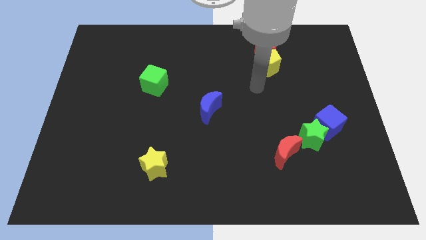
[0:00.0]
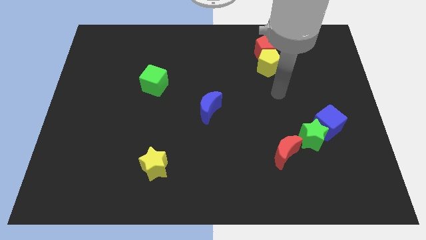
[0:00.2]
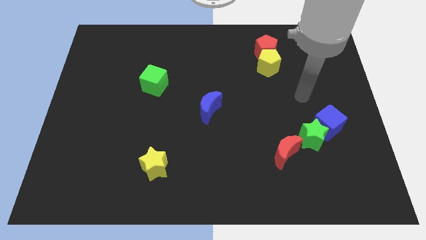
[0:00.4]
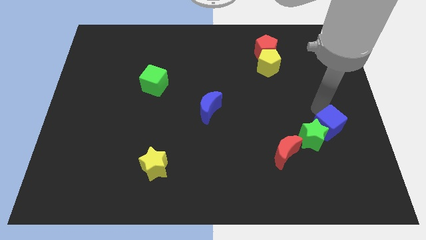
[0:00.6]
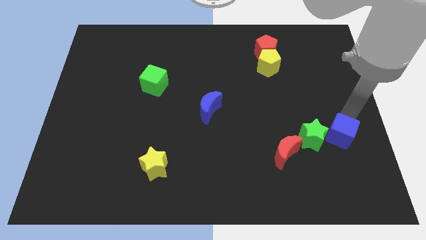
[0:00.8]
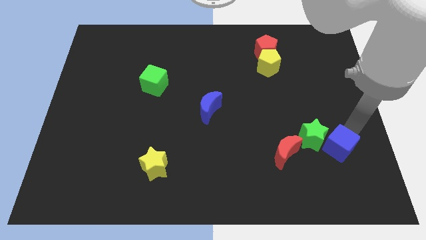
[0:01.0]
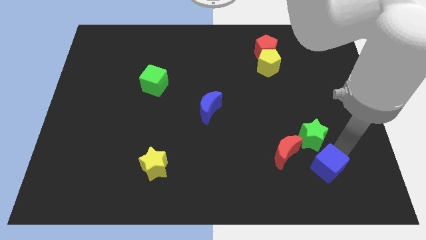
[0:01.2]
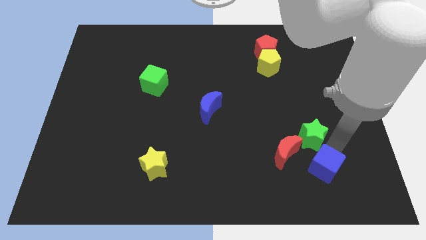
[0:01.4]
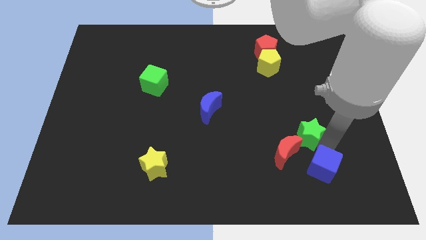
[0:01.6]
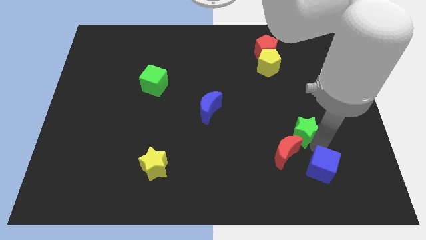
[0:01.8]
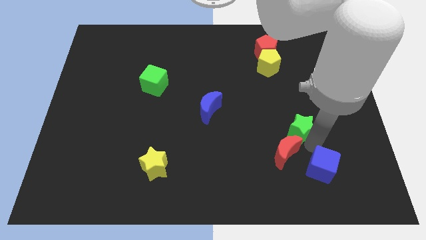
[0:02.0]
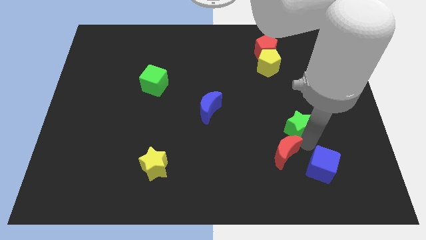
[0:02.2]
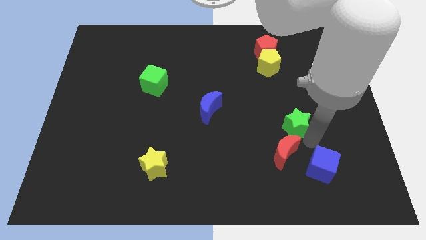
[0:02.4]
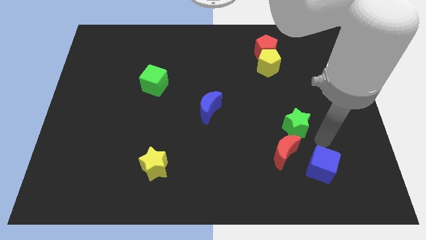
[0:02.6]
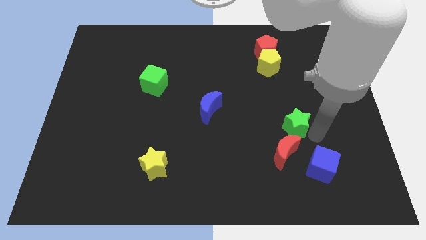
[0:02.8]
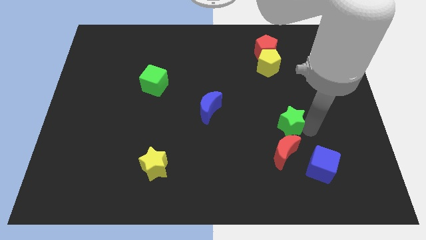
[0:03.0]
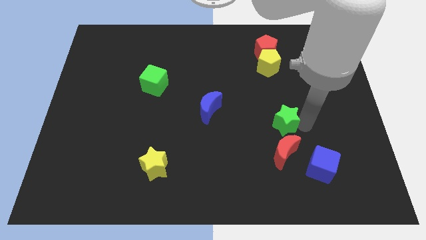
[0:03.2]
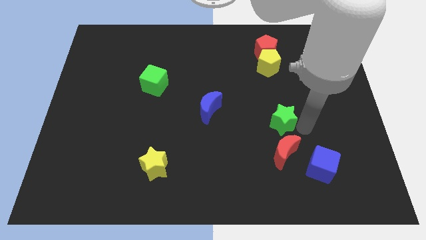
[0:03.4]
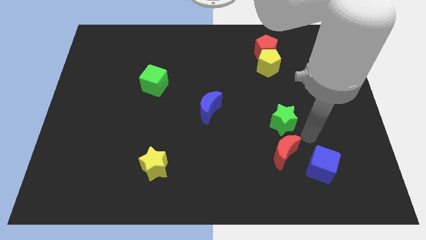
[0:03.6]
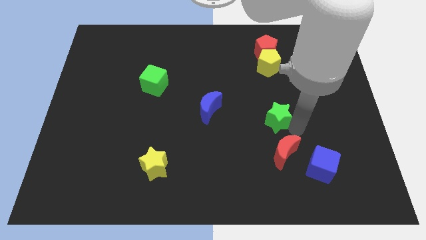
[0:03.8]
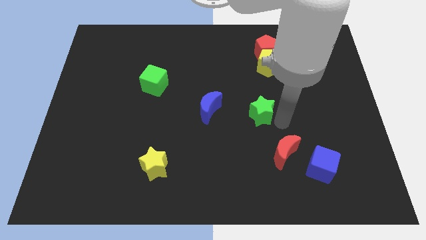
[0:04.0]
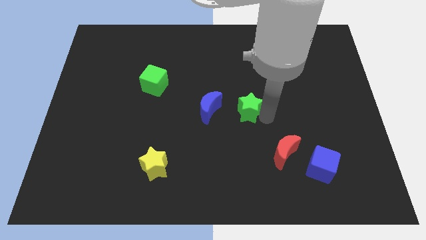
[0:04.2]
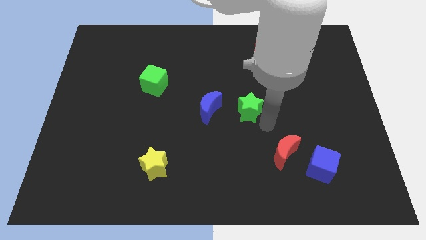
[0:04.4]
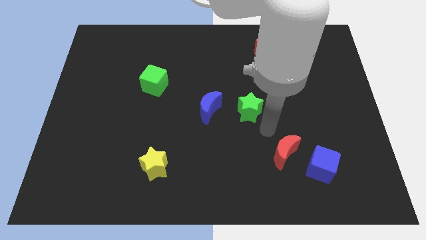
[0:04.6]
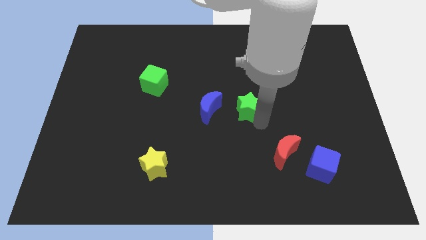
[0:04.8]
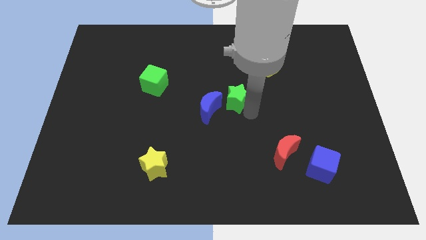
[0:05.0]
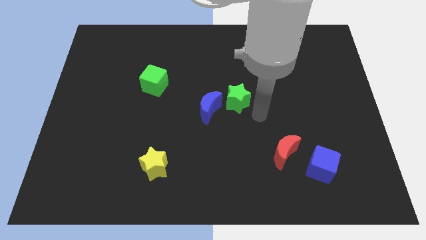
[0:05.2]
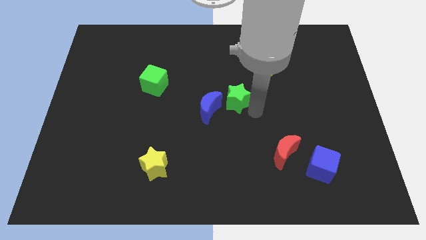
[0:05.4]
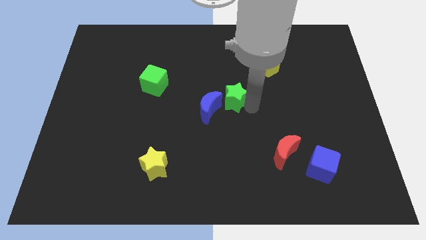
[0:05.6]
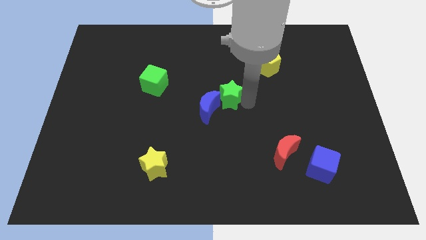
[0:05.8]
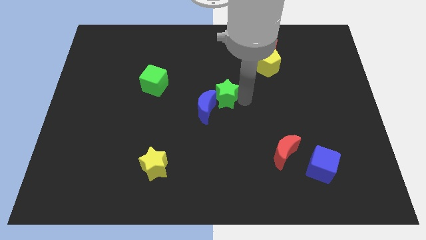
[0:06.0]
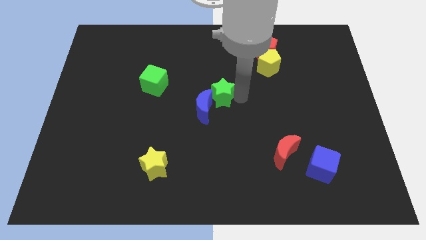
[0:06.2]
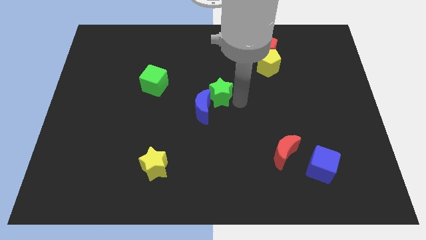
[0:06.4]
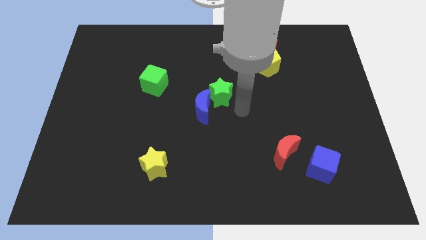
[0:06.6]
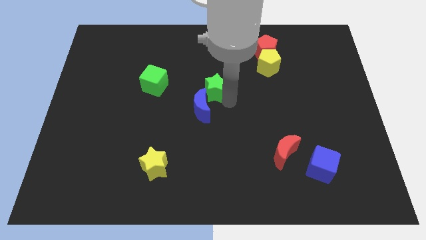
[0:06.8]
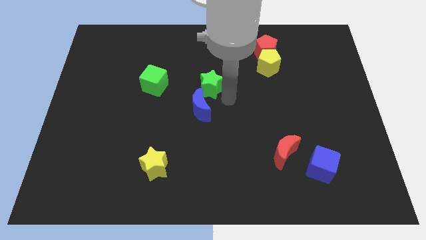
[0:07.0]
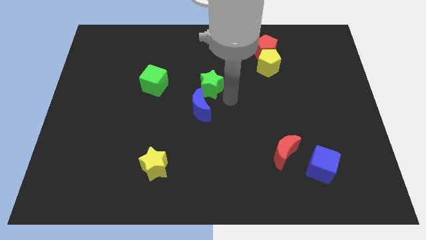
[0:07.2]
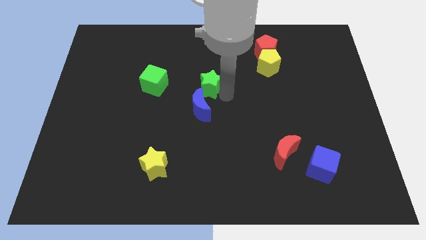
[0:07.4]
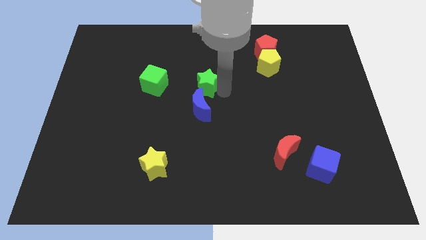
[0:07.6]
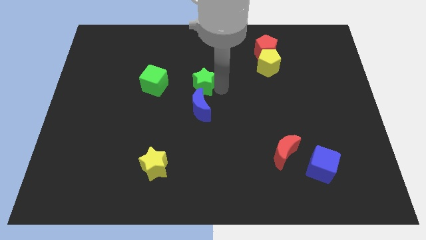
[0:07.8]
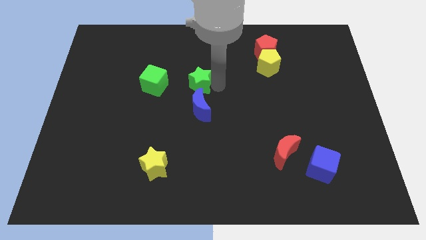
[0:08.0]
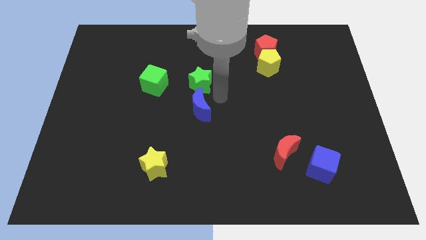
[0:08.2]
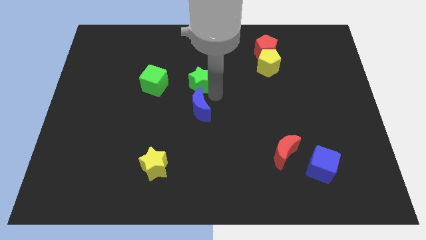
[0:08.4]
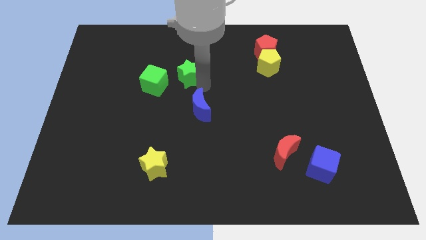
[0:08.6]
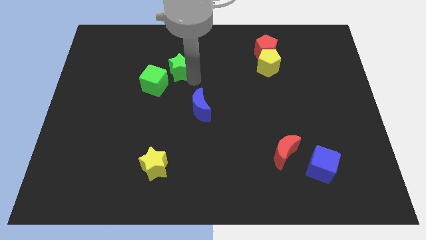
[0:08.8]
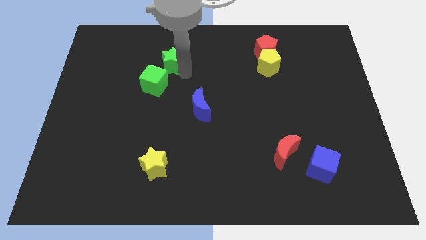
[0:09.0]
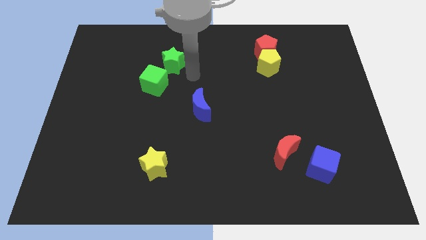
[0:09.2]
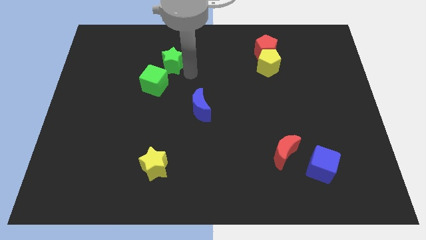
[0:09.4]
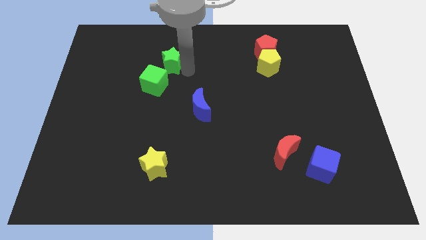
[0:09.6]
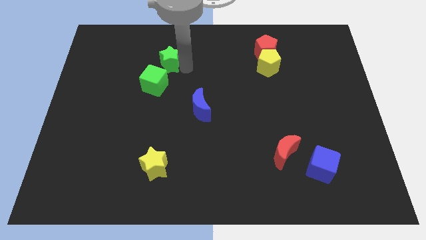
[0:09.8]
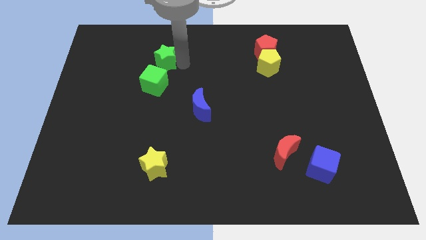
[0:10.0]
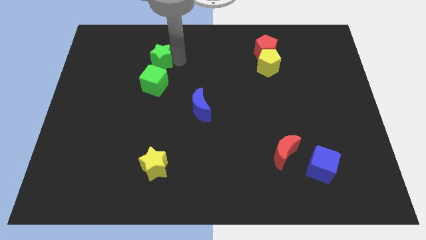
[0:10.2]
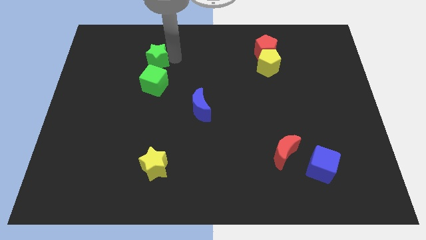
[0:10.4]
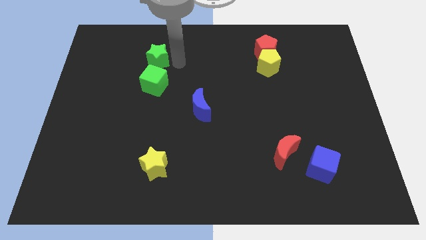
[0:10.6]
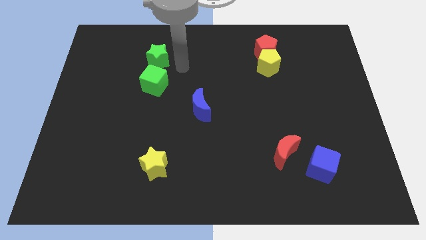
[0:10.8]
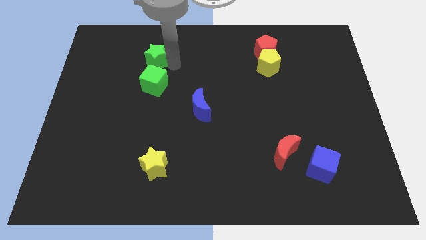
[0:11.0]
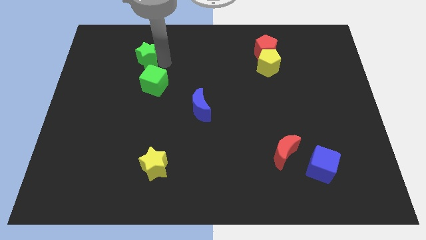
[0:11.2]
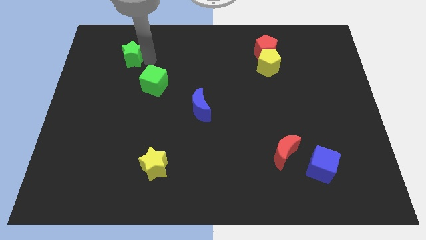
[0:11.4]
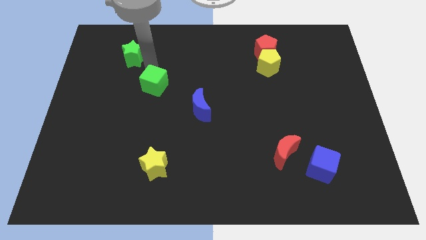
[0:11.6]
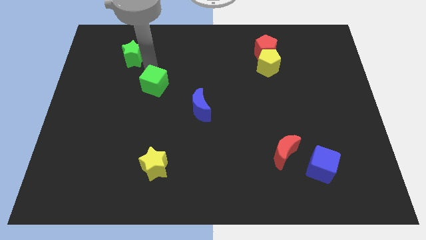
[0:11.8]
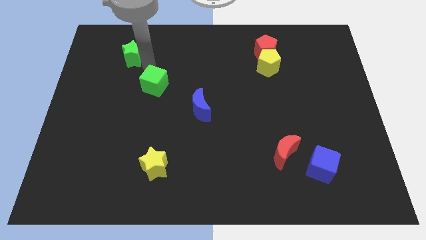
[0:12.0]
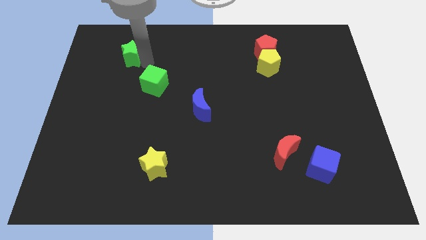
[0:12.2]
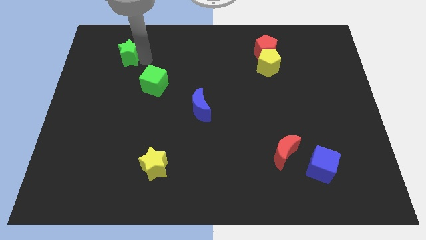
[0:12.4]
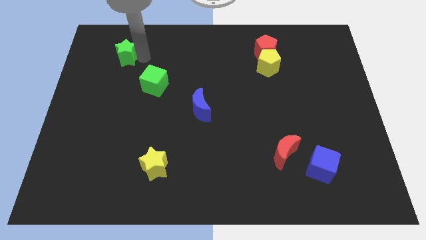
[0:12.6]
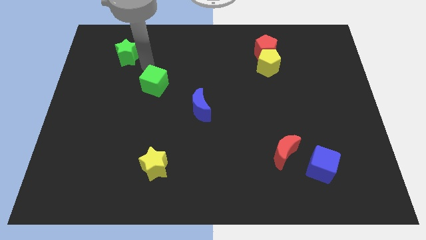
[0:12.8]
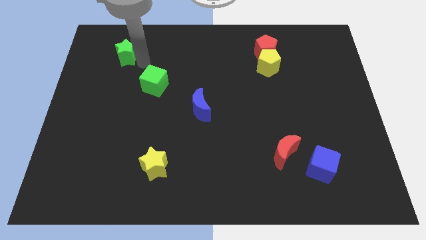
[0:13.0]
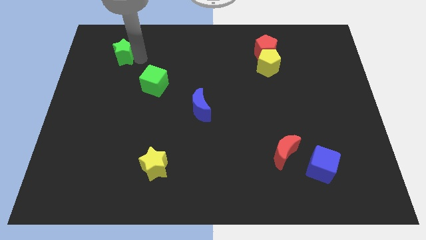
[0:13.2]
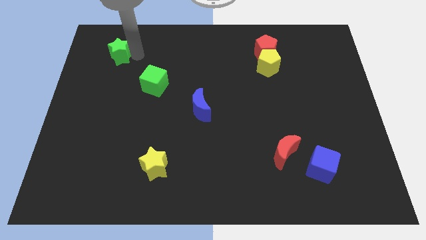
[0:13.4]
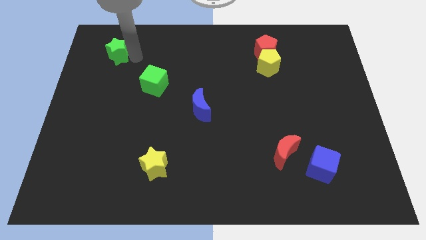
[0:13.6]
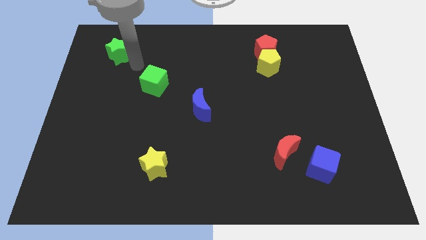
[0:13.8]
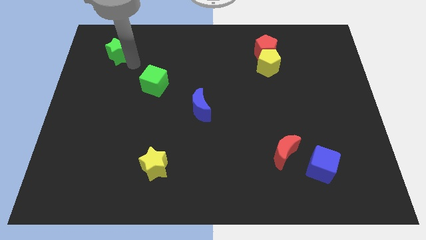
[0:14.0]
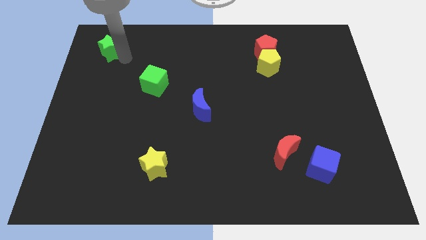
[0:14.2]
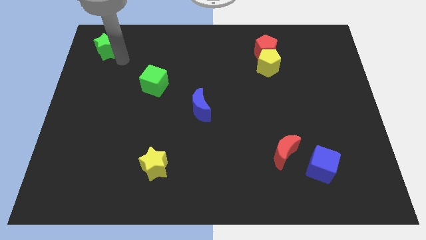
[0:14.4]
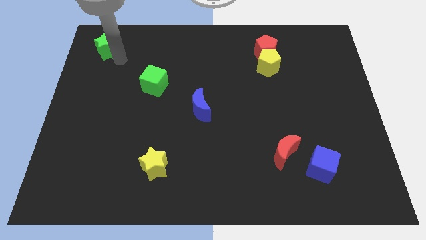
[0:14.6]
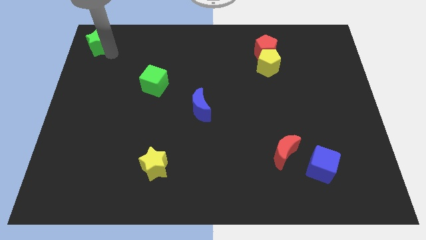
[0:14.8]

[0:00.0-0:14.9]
push the green star to the top left
